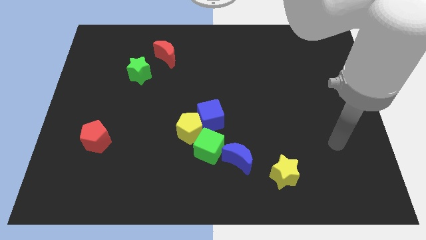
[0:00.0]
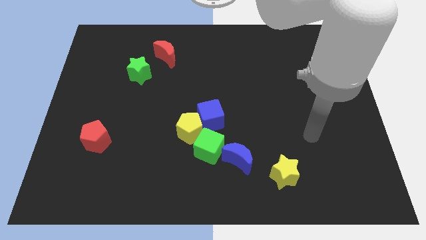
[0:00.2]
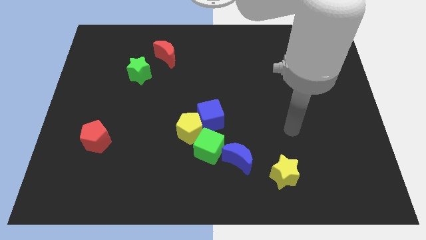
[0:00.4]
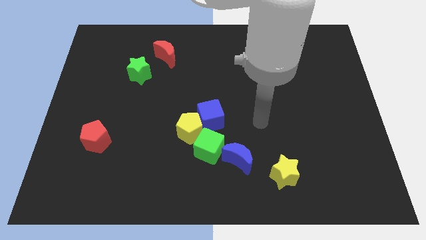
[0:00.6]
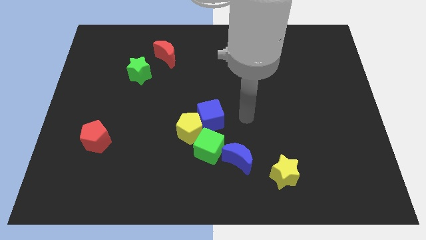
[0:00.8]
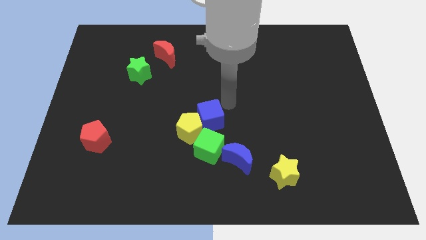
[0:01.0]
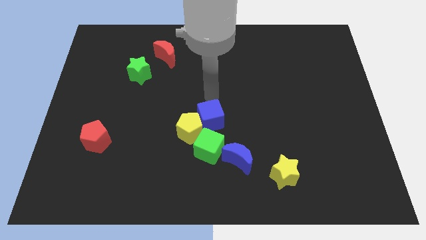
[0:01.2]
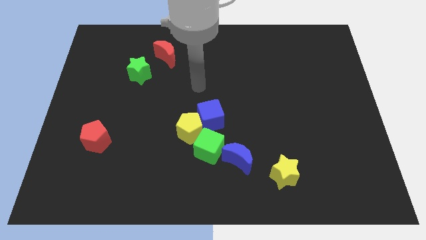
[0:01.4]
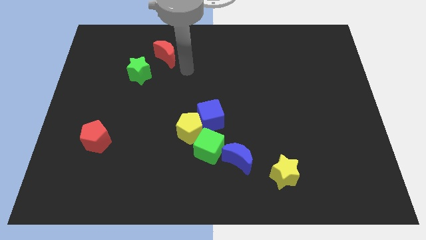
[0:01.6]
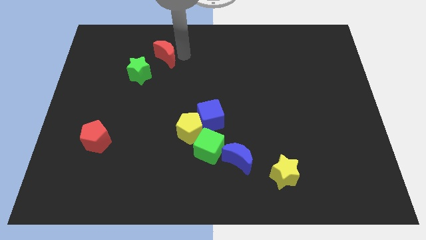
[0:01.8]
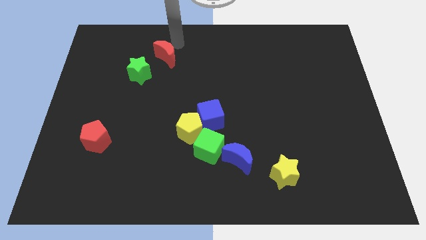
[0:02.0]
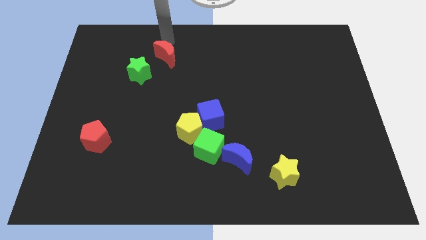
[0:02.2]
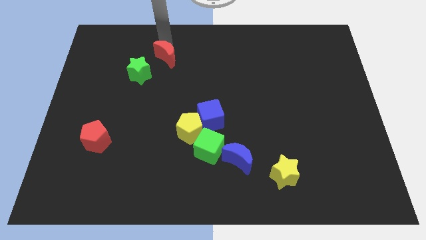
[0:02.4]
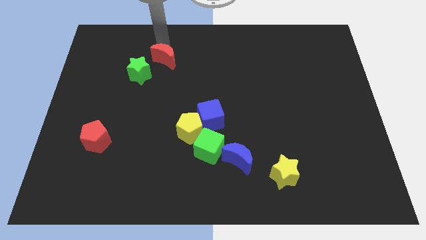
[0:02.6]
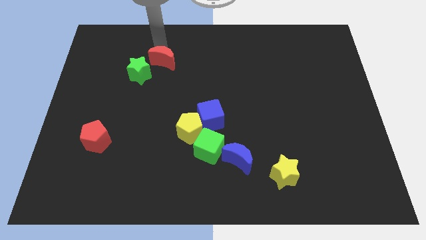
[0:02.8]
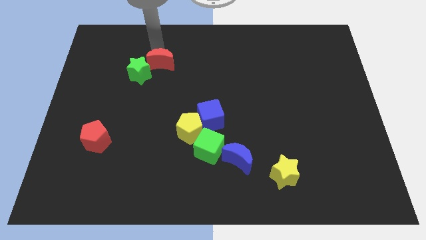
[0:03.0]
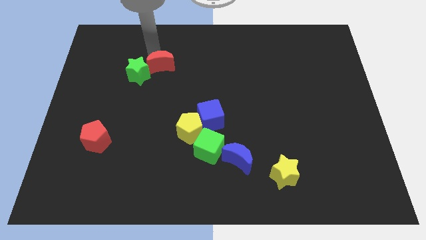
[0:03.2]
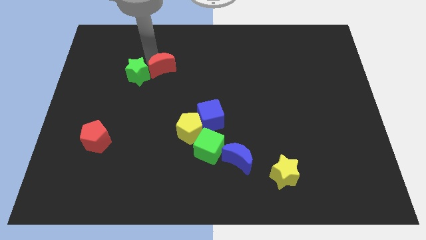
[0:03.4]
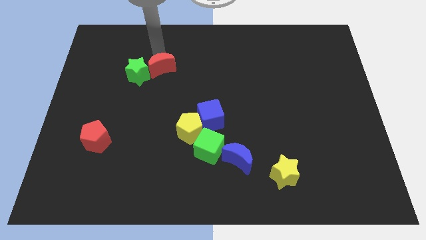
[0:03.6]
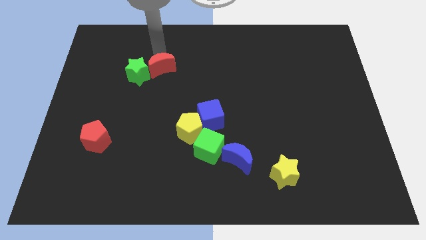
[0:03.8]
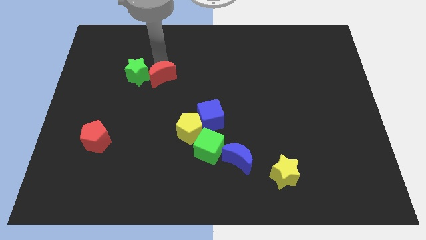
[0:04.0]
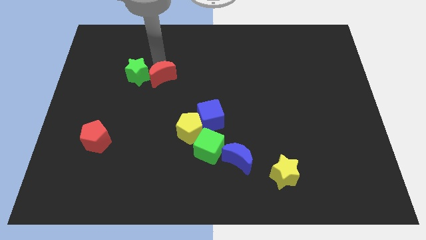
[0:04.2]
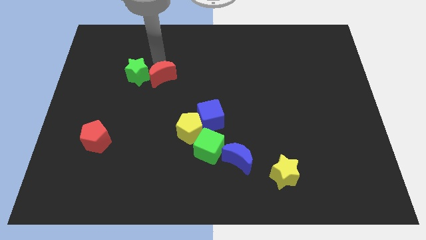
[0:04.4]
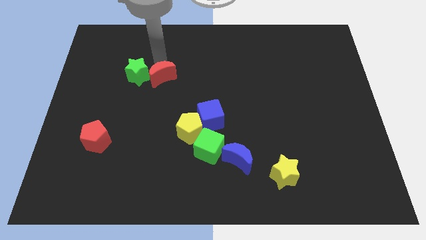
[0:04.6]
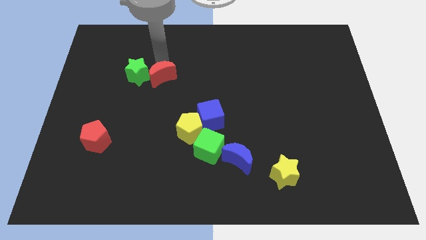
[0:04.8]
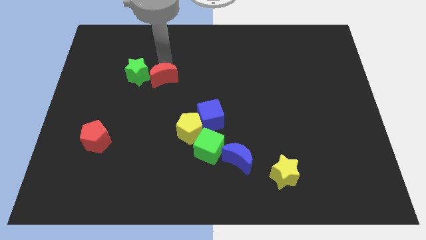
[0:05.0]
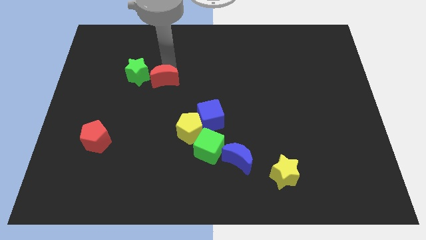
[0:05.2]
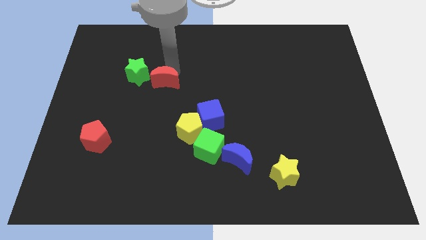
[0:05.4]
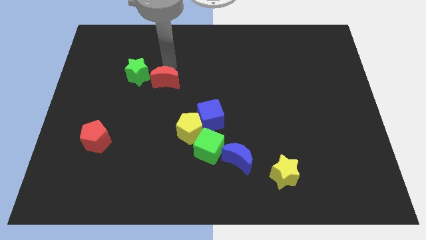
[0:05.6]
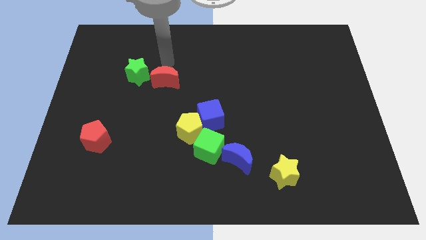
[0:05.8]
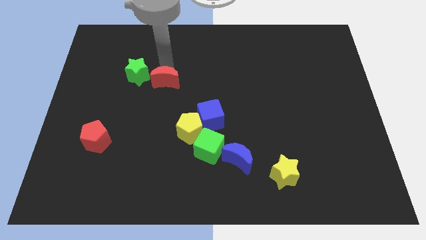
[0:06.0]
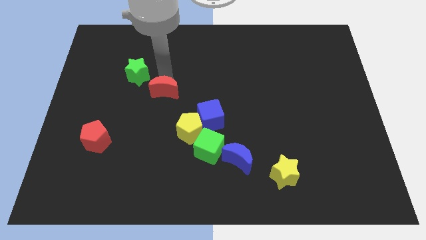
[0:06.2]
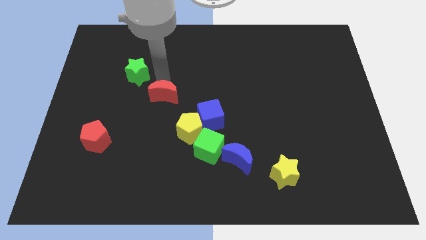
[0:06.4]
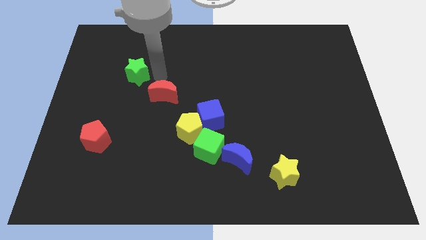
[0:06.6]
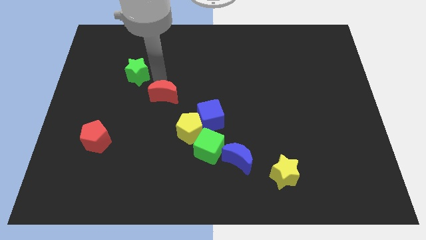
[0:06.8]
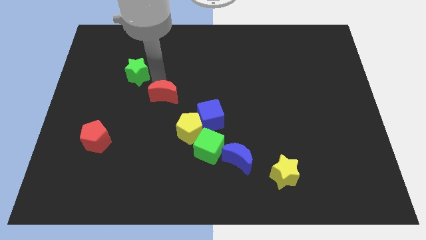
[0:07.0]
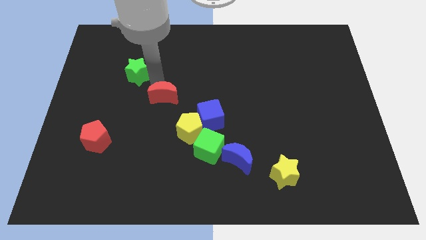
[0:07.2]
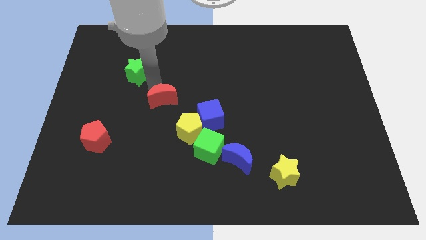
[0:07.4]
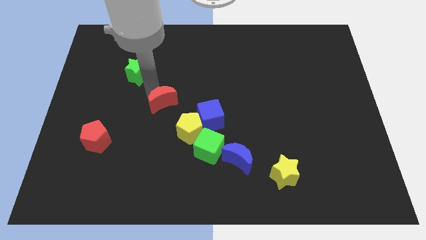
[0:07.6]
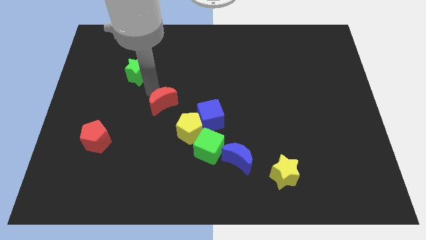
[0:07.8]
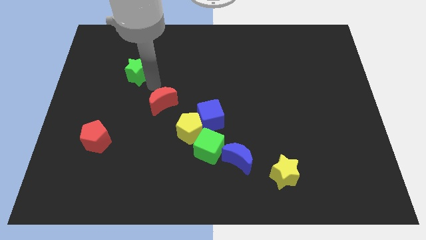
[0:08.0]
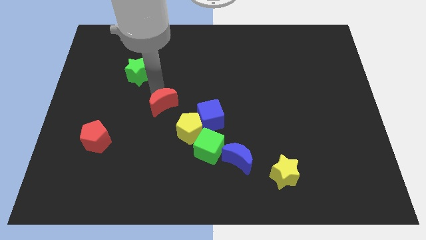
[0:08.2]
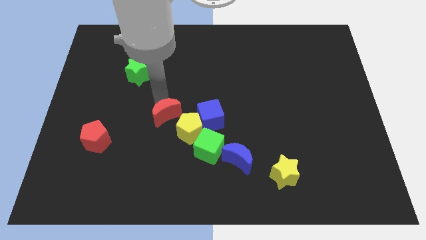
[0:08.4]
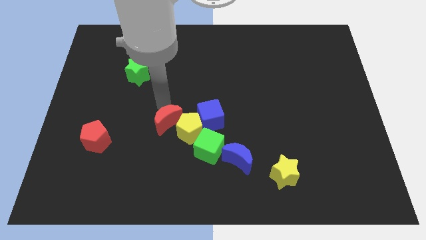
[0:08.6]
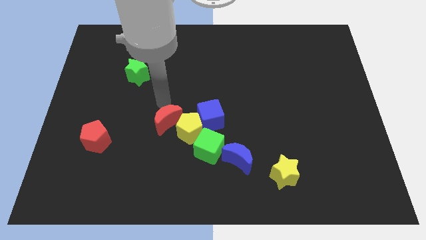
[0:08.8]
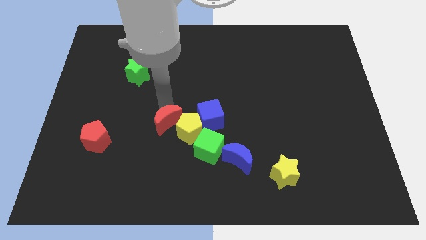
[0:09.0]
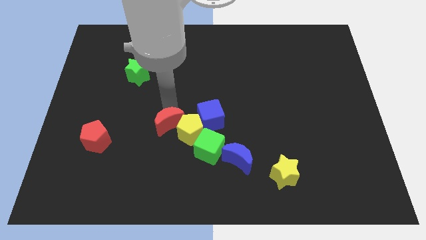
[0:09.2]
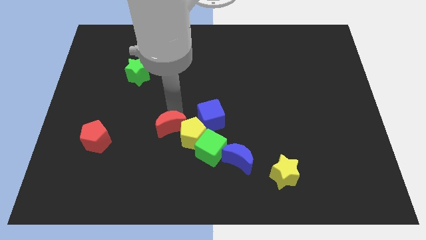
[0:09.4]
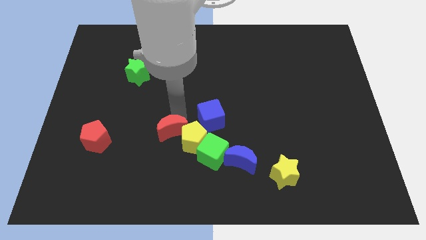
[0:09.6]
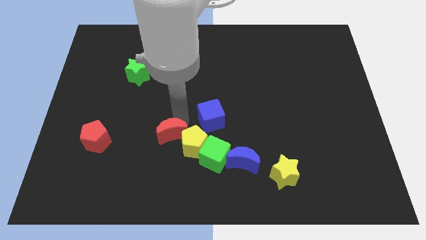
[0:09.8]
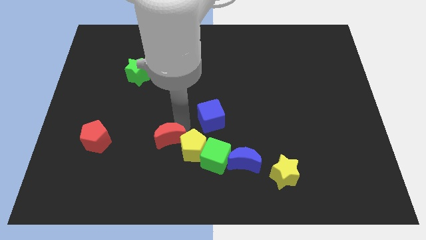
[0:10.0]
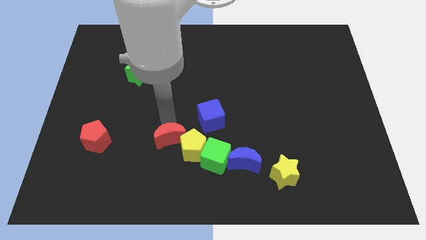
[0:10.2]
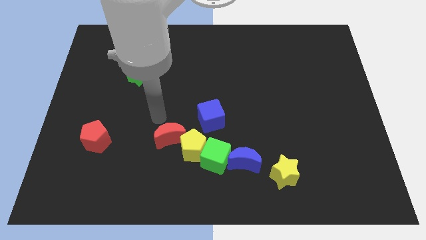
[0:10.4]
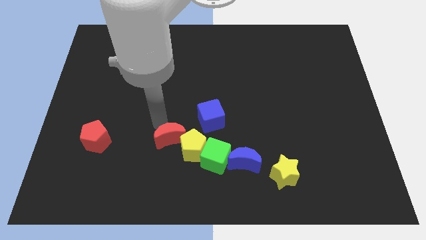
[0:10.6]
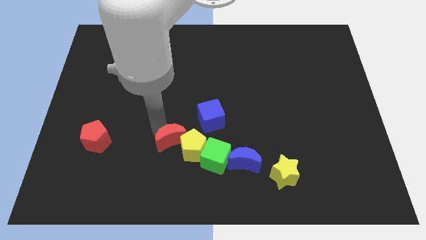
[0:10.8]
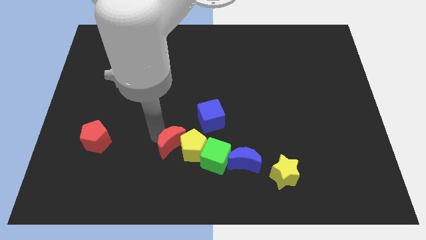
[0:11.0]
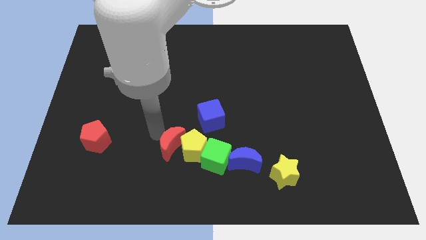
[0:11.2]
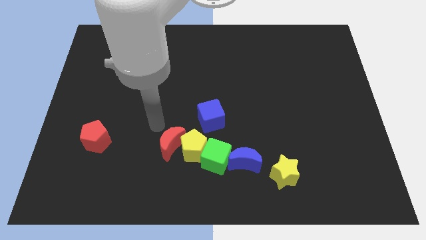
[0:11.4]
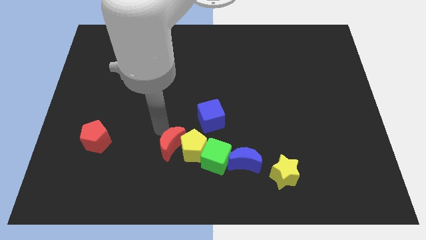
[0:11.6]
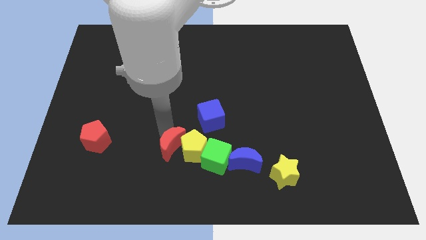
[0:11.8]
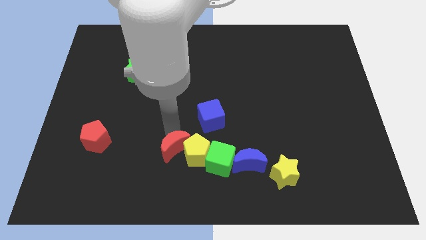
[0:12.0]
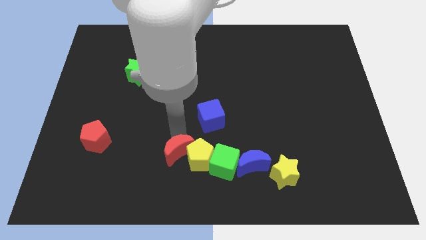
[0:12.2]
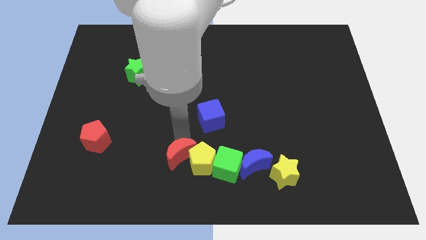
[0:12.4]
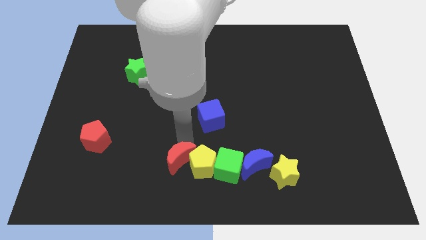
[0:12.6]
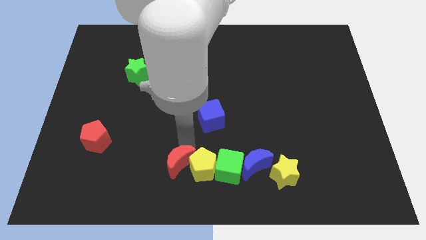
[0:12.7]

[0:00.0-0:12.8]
put the red moon to the bottom side

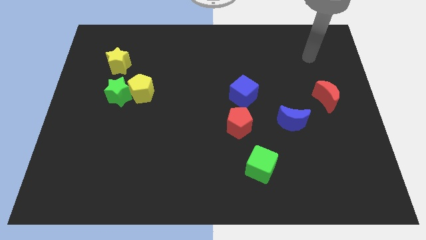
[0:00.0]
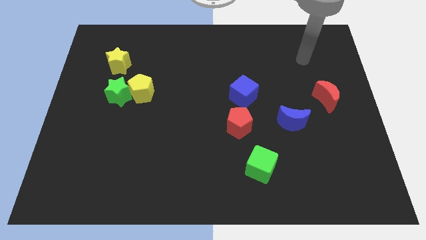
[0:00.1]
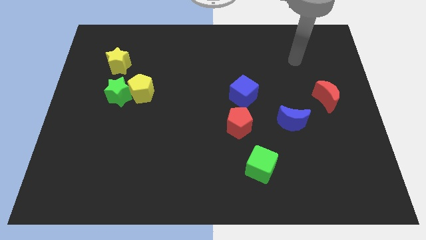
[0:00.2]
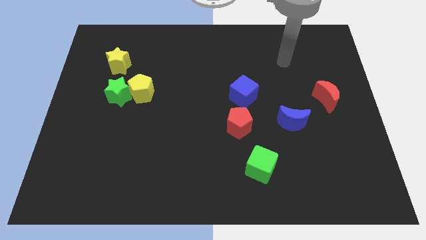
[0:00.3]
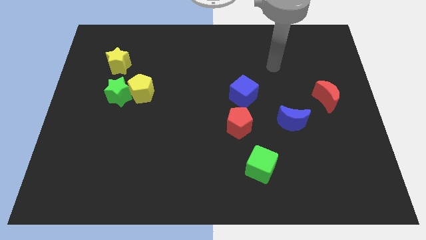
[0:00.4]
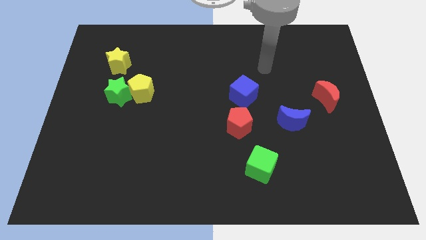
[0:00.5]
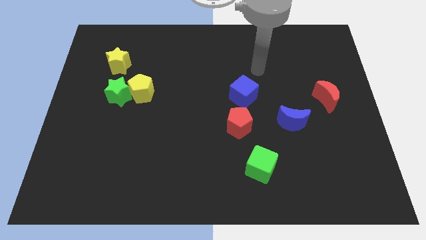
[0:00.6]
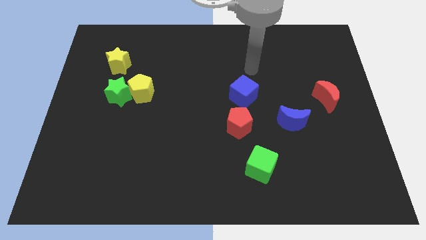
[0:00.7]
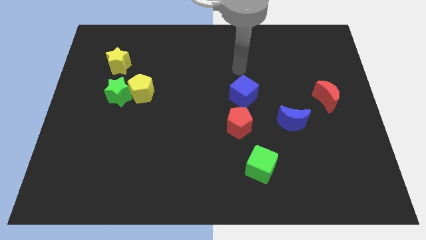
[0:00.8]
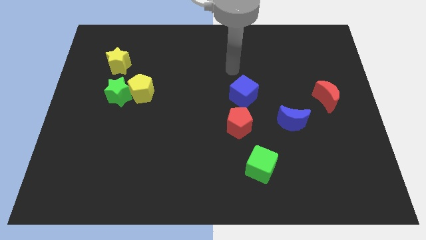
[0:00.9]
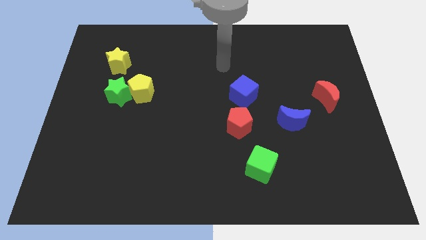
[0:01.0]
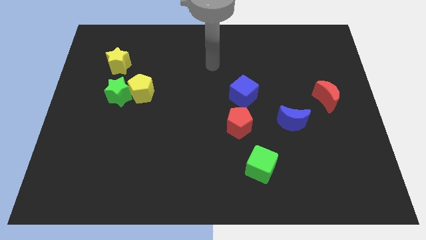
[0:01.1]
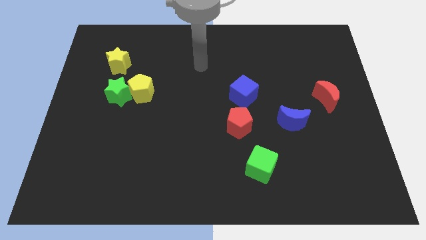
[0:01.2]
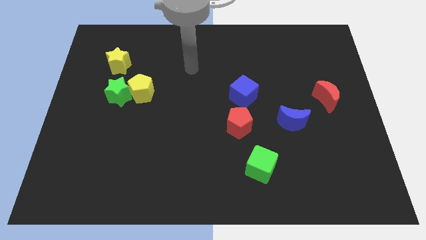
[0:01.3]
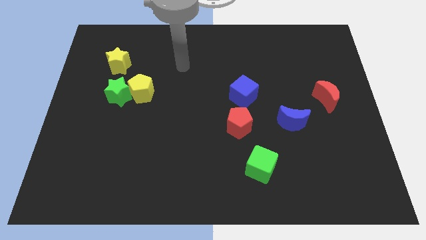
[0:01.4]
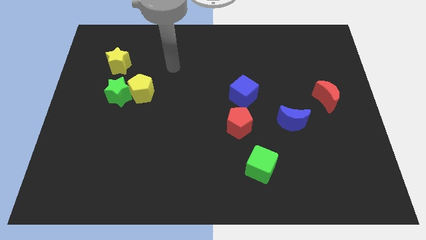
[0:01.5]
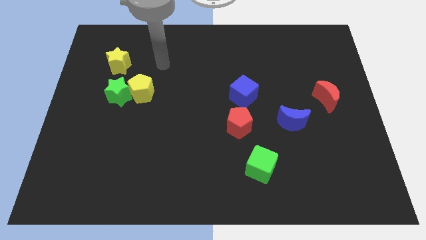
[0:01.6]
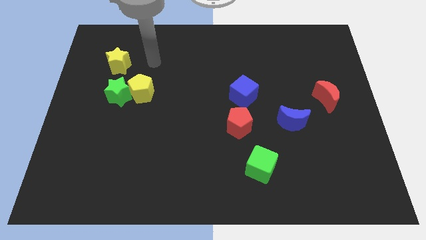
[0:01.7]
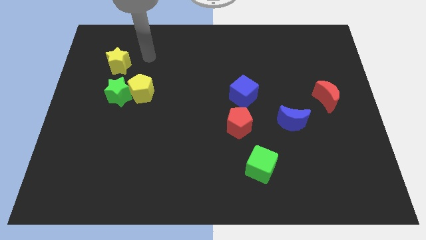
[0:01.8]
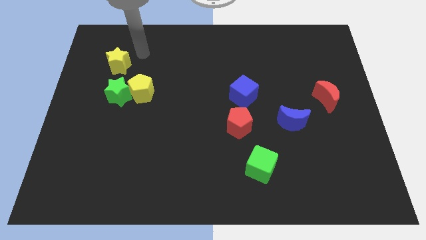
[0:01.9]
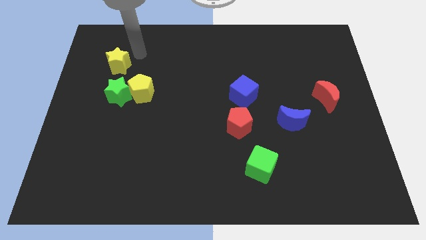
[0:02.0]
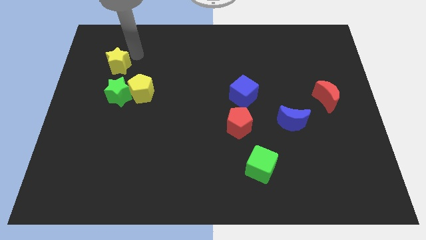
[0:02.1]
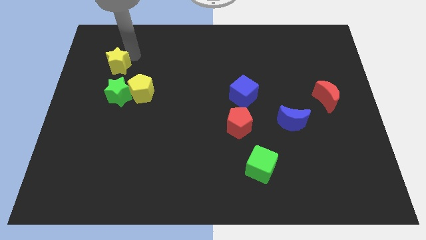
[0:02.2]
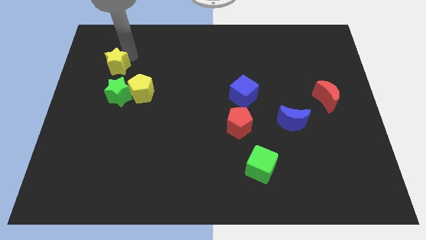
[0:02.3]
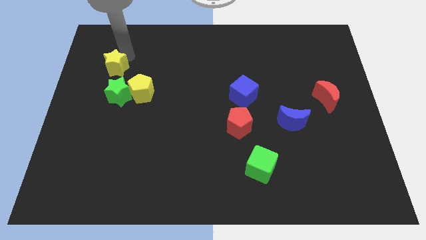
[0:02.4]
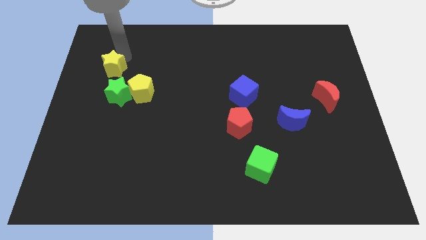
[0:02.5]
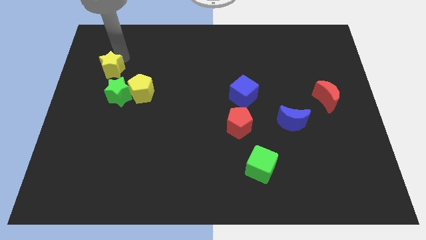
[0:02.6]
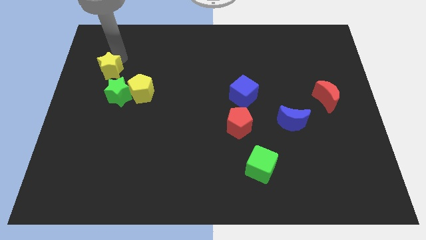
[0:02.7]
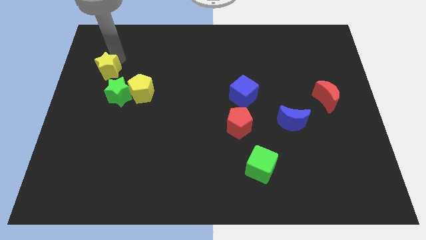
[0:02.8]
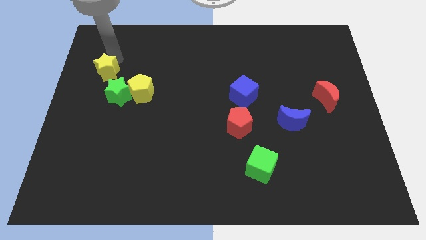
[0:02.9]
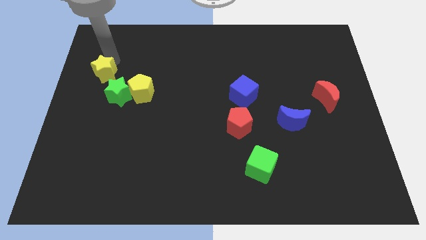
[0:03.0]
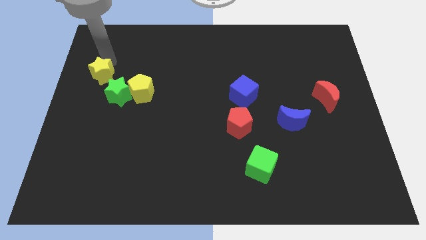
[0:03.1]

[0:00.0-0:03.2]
push the yellow star to the left side of the board
